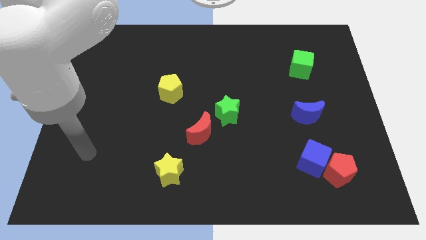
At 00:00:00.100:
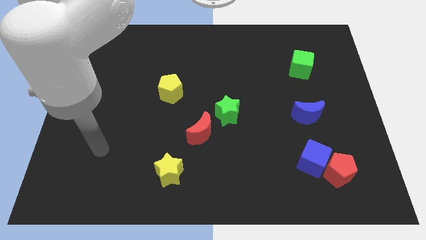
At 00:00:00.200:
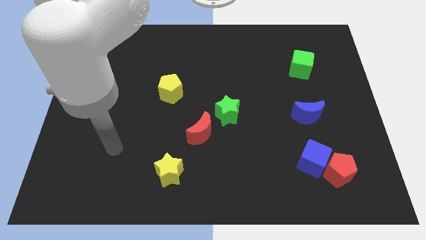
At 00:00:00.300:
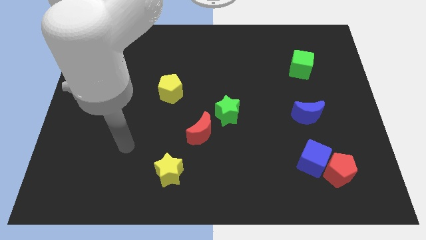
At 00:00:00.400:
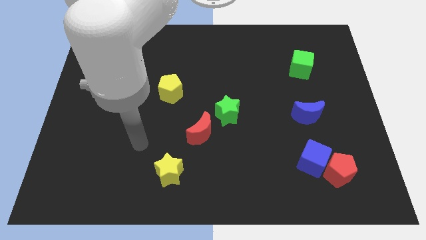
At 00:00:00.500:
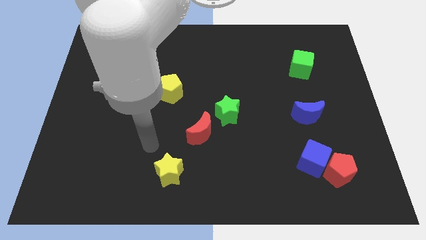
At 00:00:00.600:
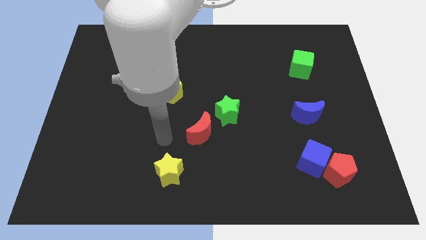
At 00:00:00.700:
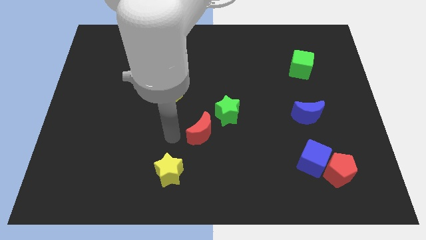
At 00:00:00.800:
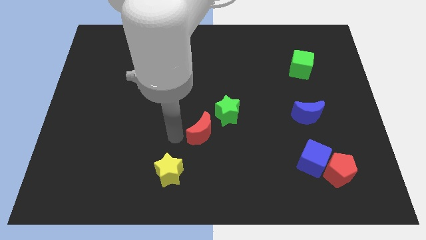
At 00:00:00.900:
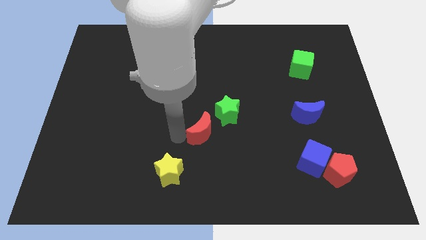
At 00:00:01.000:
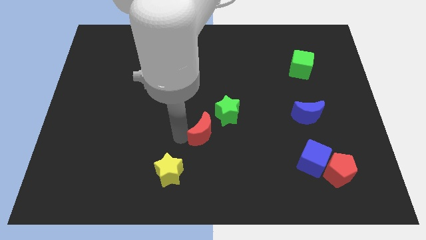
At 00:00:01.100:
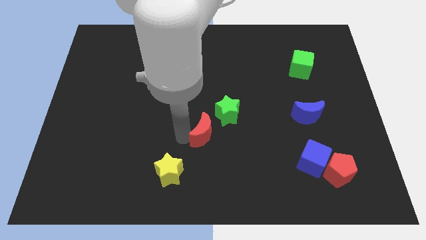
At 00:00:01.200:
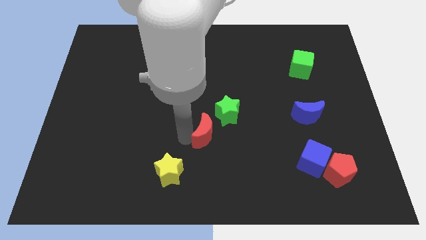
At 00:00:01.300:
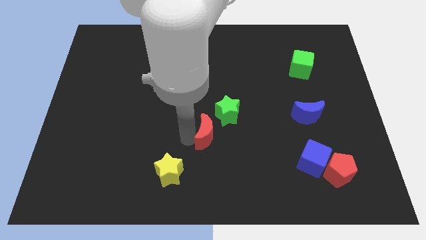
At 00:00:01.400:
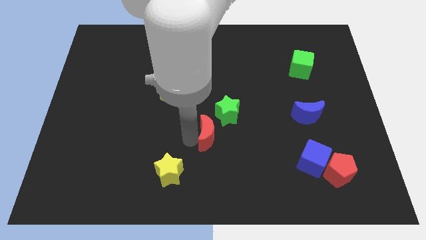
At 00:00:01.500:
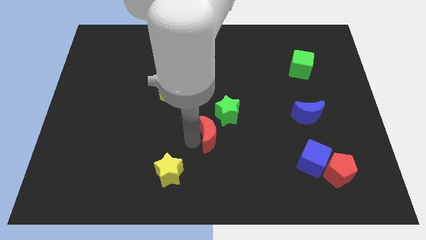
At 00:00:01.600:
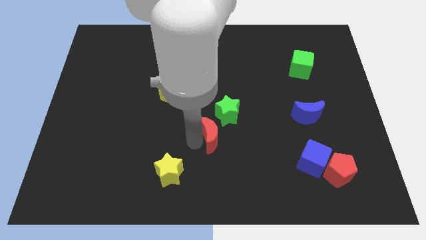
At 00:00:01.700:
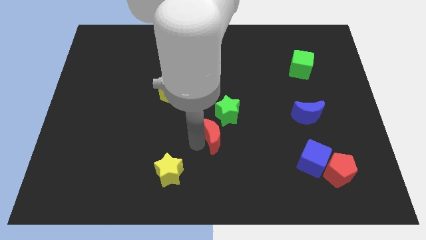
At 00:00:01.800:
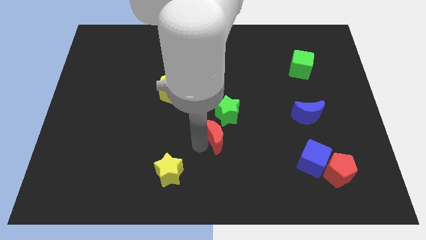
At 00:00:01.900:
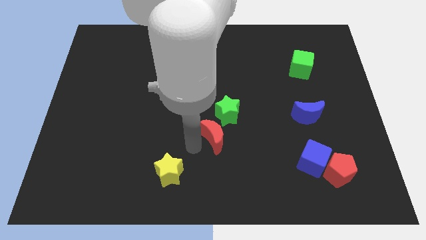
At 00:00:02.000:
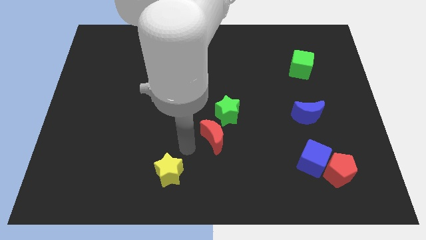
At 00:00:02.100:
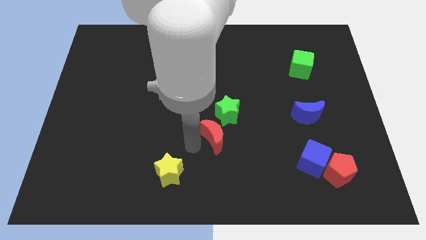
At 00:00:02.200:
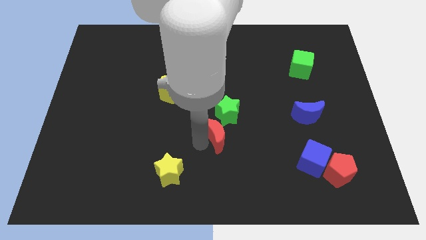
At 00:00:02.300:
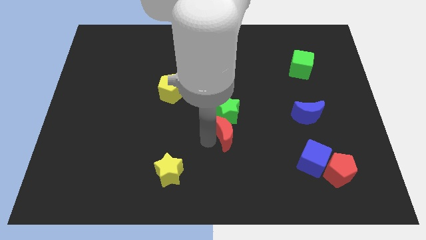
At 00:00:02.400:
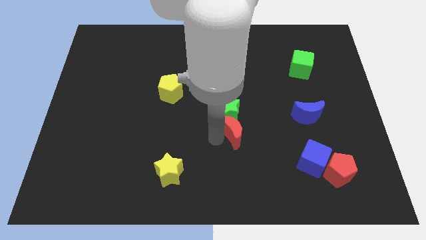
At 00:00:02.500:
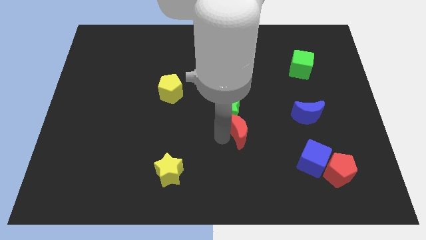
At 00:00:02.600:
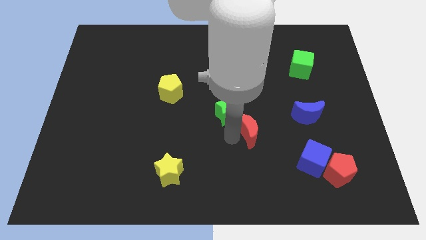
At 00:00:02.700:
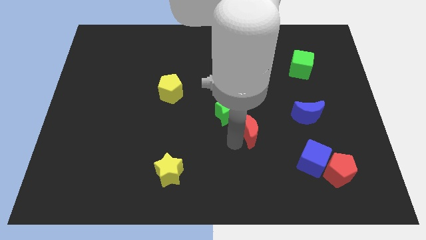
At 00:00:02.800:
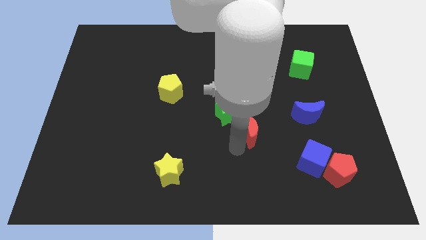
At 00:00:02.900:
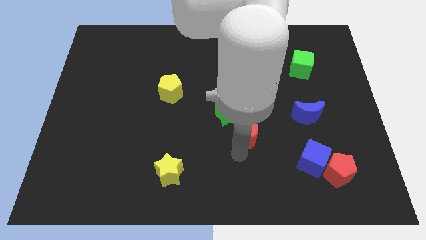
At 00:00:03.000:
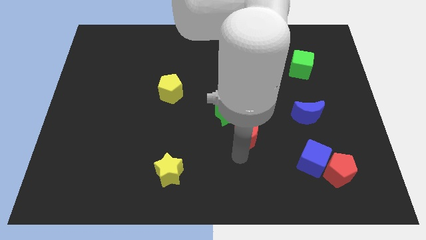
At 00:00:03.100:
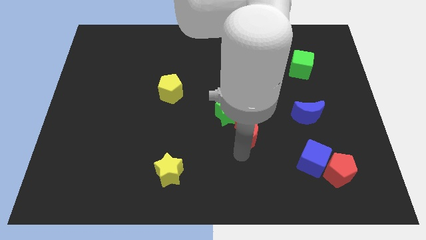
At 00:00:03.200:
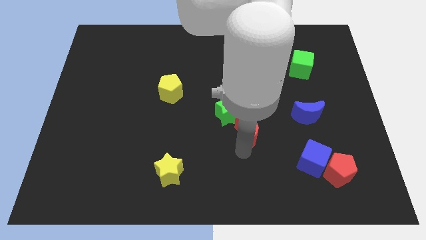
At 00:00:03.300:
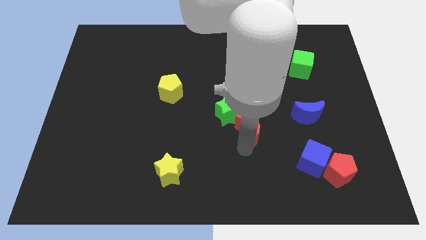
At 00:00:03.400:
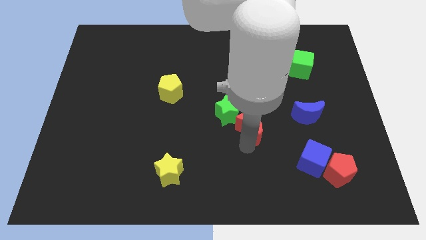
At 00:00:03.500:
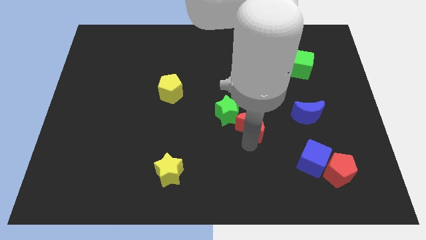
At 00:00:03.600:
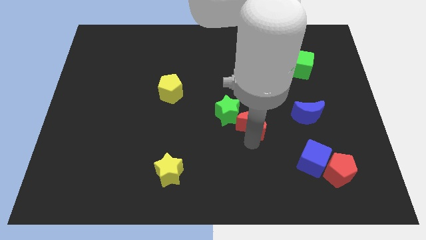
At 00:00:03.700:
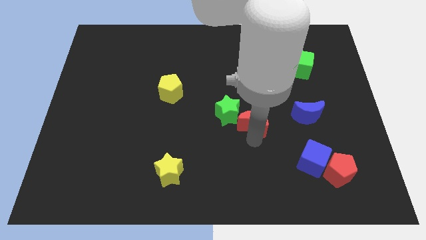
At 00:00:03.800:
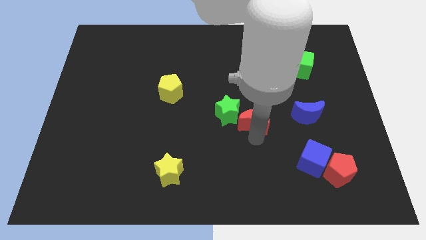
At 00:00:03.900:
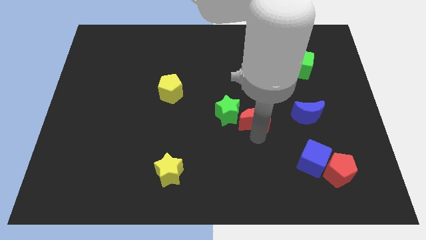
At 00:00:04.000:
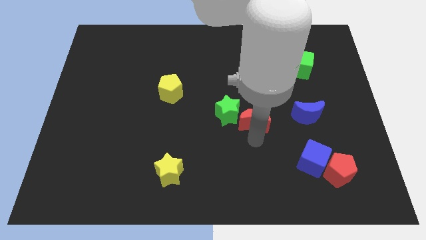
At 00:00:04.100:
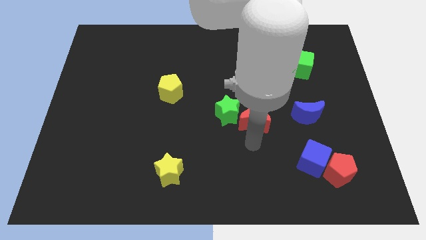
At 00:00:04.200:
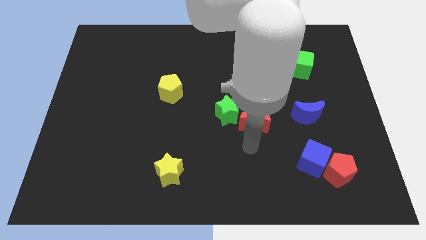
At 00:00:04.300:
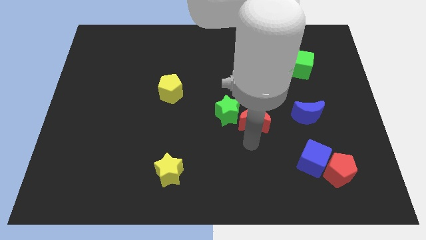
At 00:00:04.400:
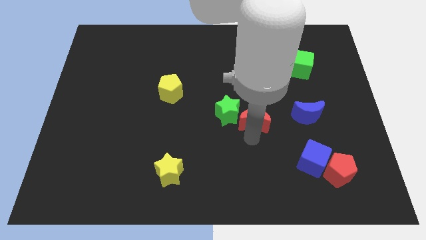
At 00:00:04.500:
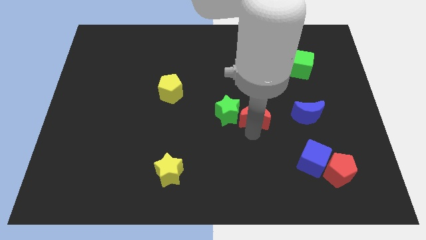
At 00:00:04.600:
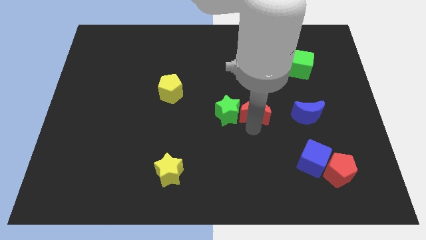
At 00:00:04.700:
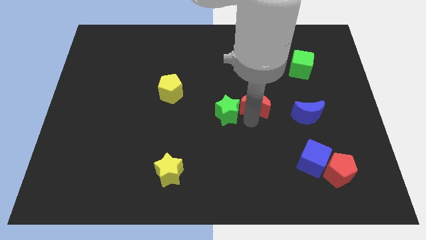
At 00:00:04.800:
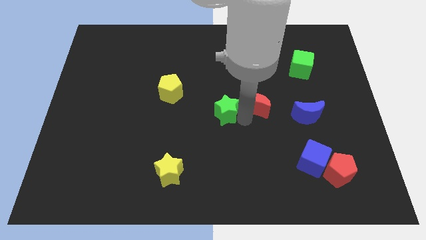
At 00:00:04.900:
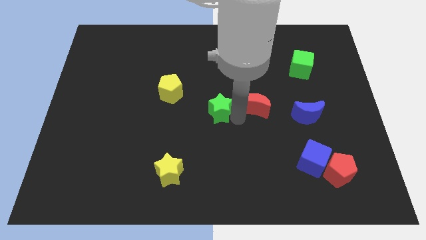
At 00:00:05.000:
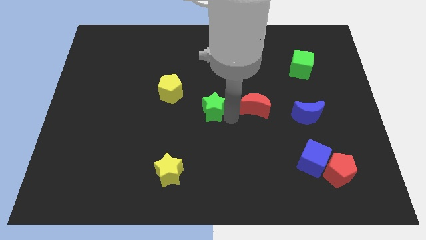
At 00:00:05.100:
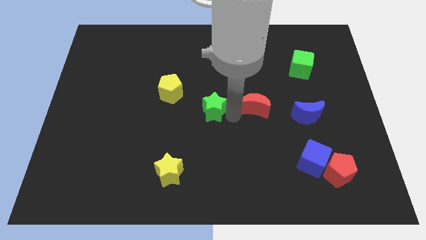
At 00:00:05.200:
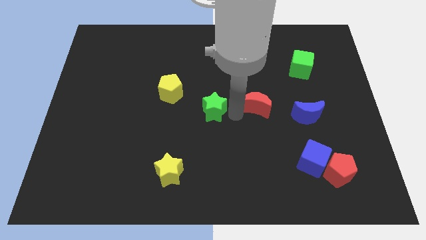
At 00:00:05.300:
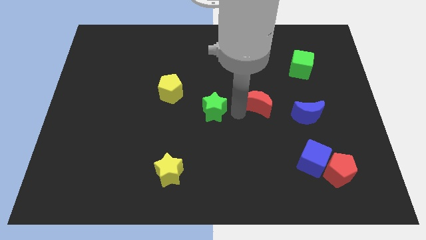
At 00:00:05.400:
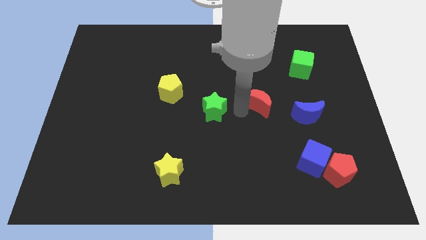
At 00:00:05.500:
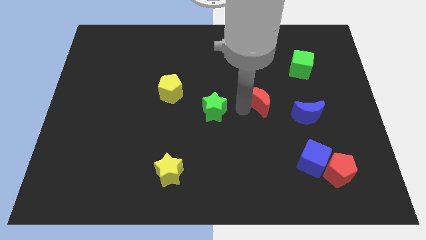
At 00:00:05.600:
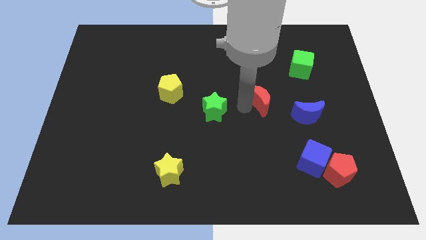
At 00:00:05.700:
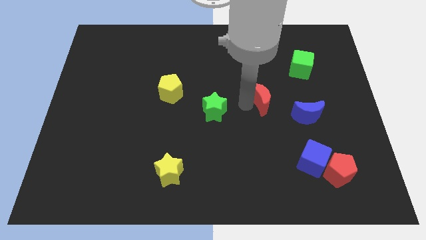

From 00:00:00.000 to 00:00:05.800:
put the red moon diagonally up and to the left of the blue moon

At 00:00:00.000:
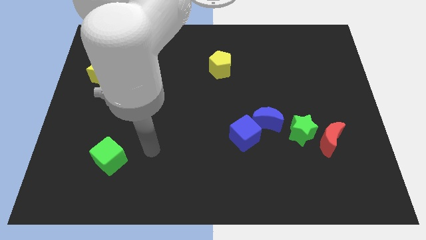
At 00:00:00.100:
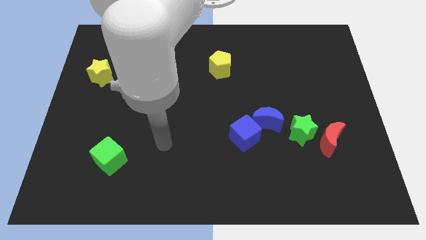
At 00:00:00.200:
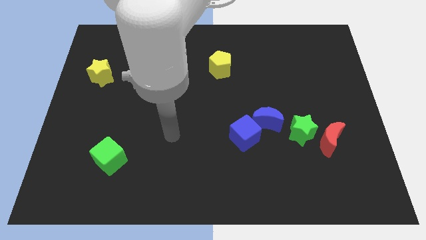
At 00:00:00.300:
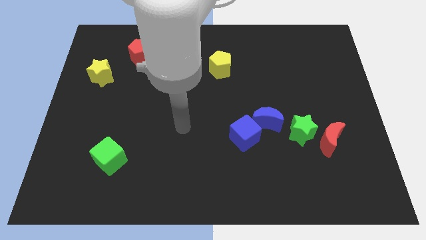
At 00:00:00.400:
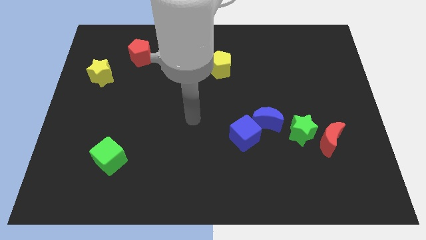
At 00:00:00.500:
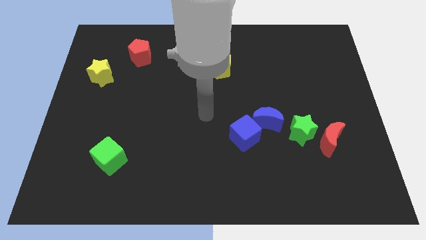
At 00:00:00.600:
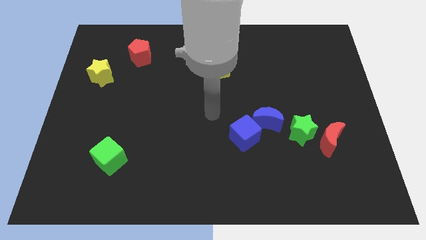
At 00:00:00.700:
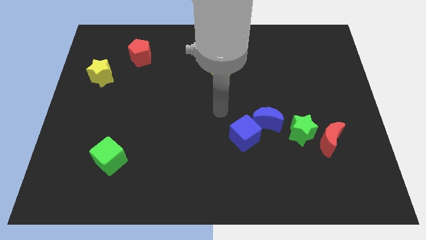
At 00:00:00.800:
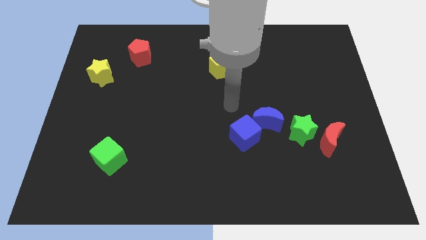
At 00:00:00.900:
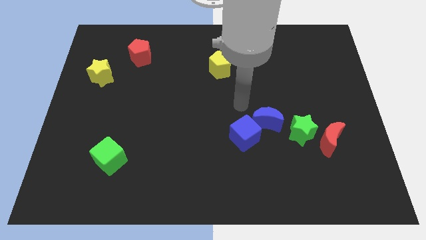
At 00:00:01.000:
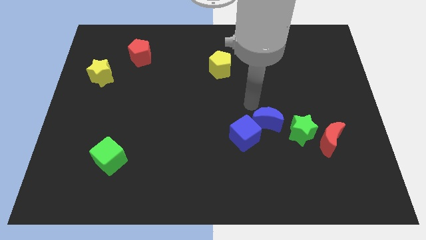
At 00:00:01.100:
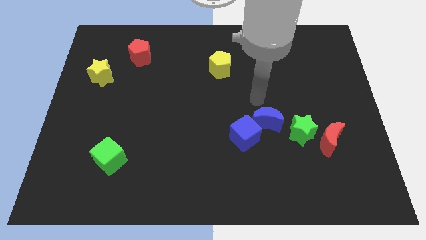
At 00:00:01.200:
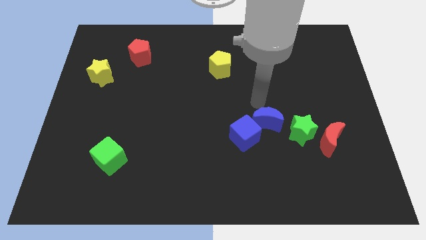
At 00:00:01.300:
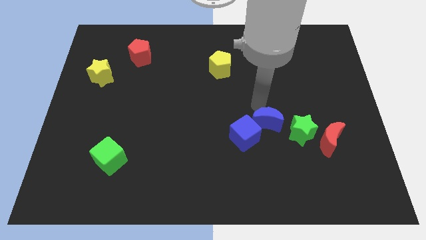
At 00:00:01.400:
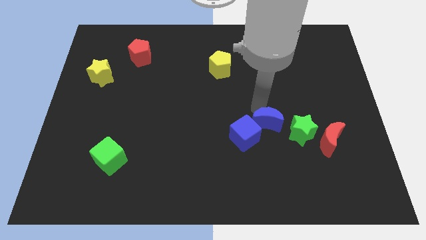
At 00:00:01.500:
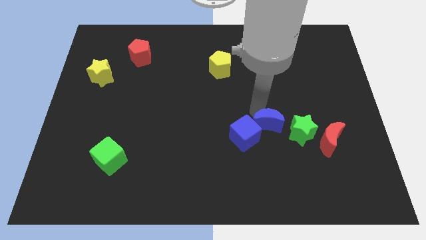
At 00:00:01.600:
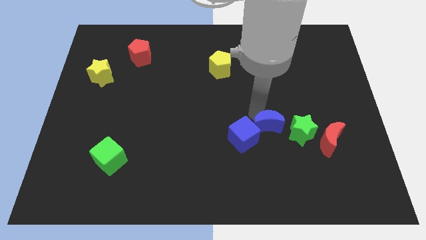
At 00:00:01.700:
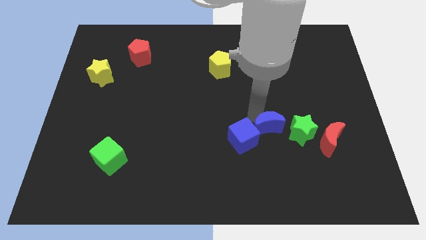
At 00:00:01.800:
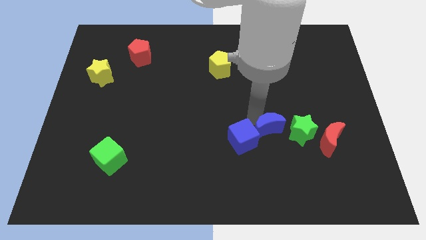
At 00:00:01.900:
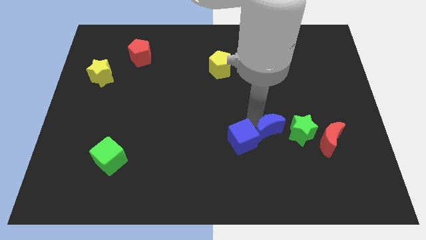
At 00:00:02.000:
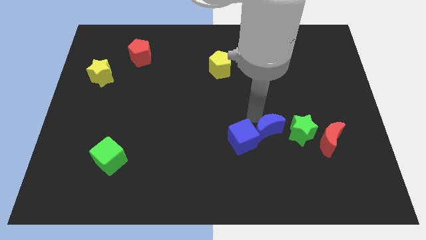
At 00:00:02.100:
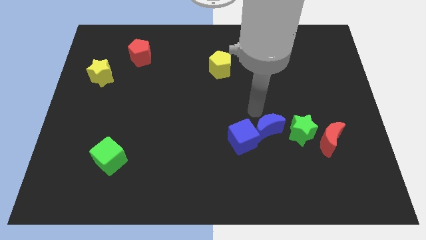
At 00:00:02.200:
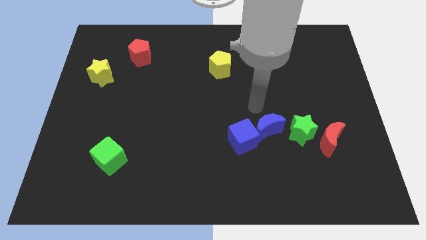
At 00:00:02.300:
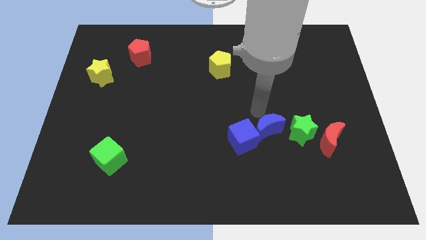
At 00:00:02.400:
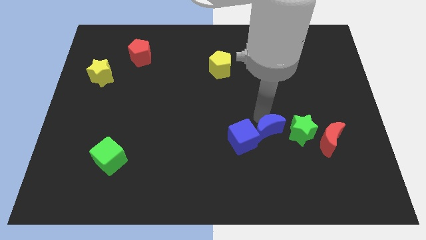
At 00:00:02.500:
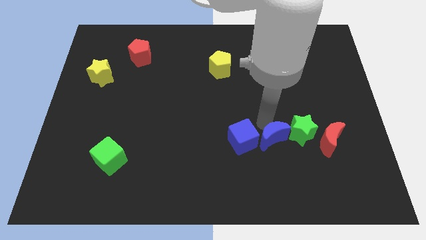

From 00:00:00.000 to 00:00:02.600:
slide the blue moon to the bottom left side of the green star

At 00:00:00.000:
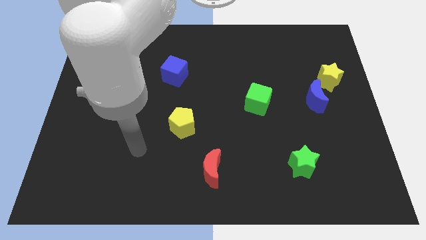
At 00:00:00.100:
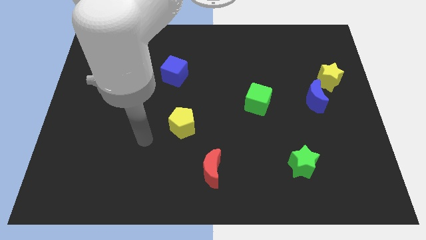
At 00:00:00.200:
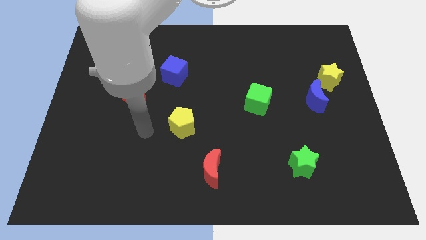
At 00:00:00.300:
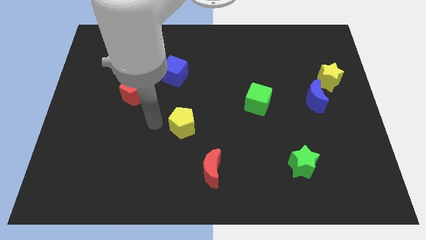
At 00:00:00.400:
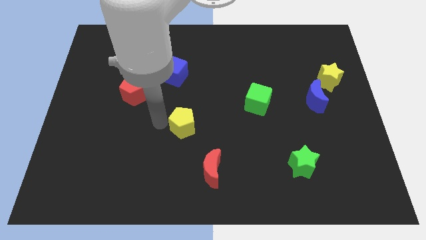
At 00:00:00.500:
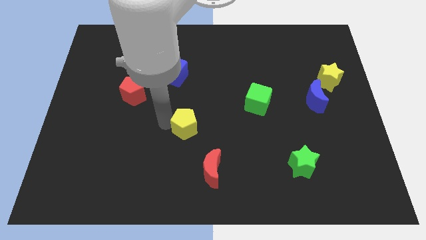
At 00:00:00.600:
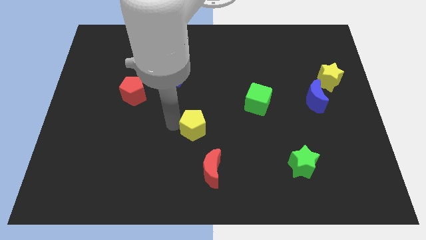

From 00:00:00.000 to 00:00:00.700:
slide the yellow pentagon above the red moon
